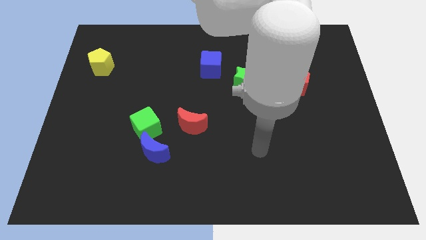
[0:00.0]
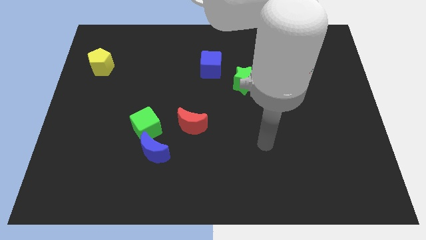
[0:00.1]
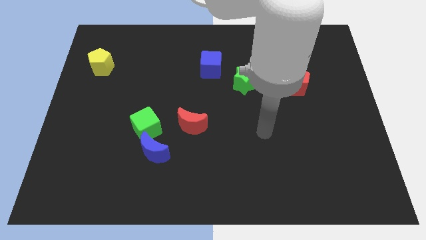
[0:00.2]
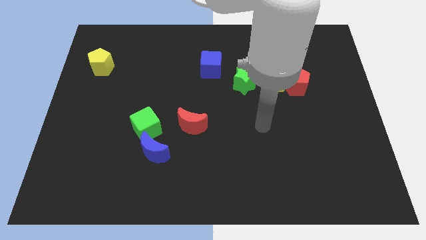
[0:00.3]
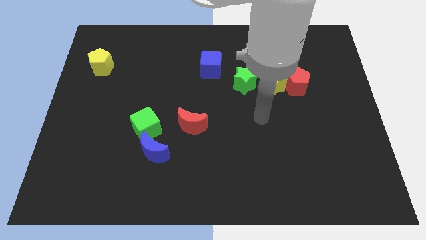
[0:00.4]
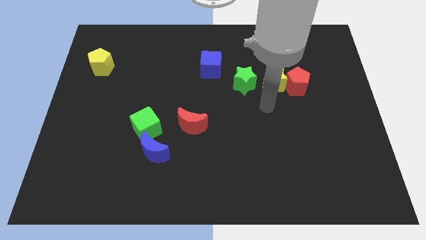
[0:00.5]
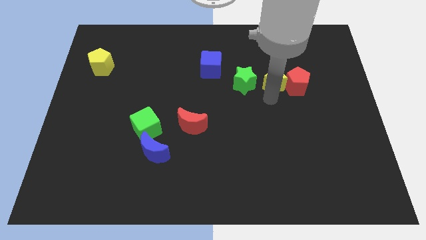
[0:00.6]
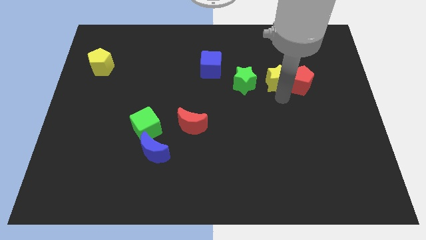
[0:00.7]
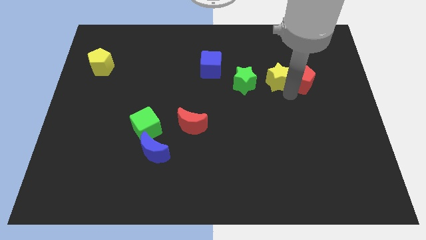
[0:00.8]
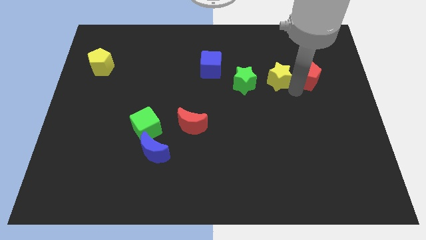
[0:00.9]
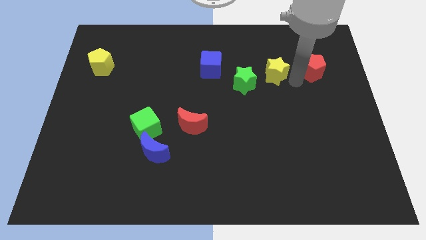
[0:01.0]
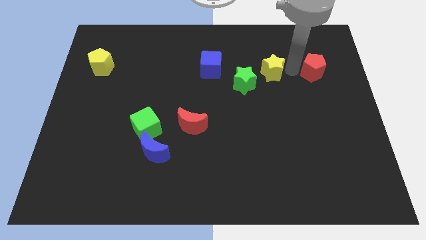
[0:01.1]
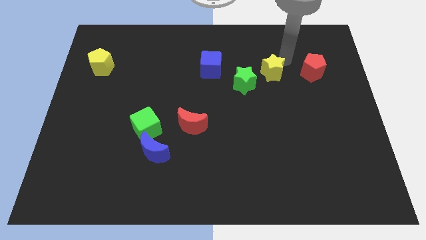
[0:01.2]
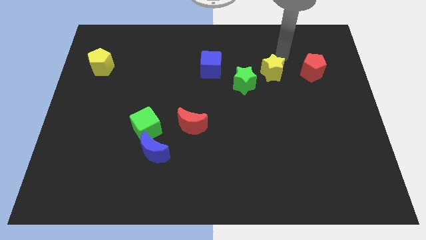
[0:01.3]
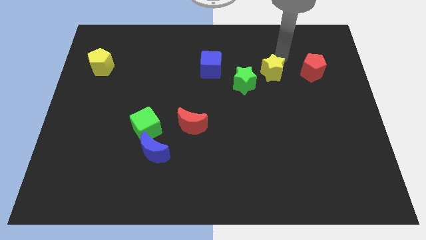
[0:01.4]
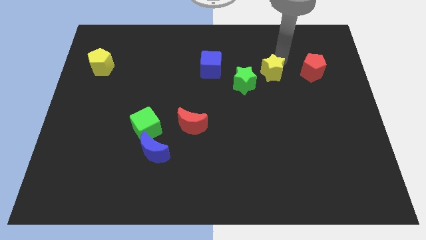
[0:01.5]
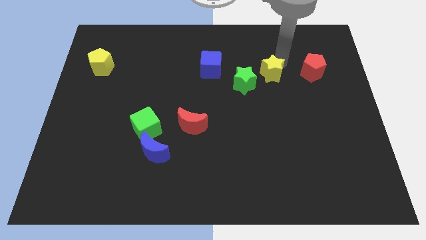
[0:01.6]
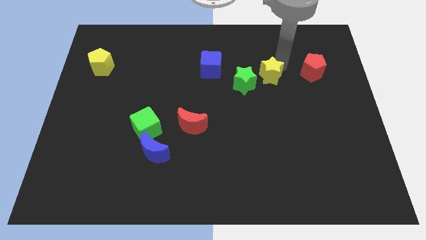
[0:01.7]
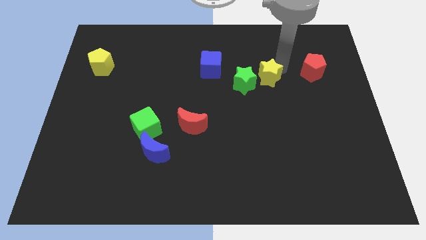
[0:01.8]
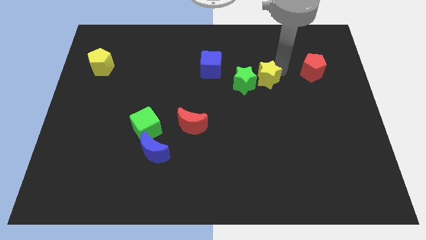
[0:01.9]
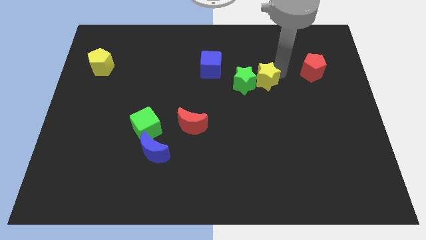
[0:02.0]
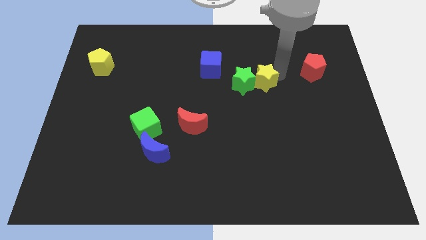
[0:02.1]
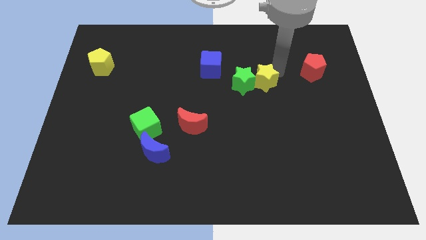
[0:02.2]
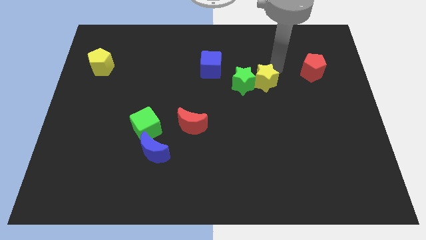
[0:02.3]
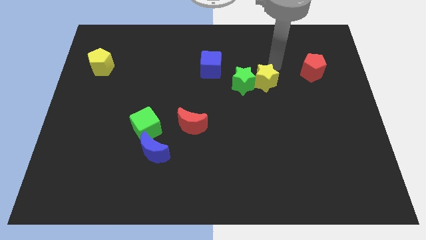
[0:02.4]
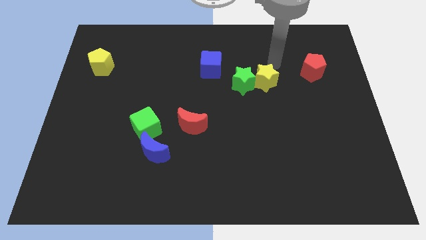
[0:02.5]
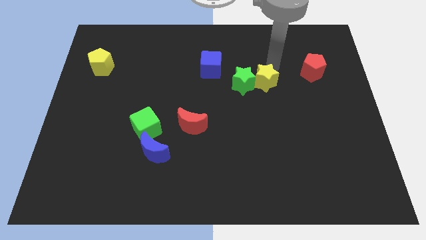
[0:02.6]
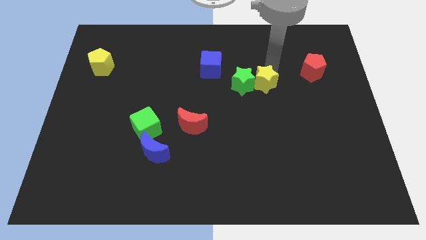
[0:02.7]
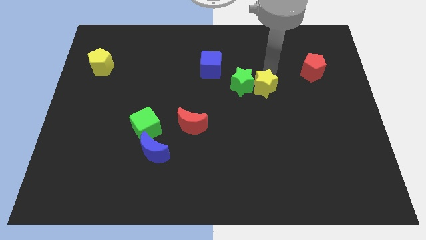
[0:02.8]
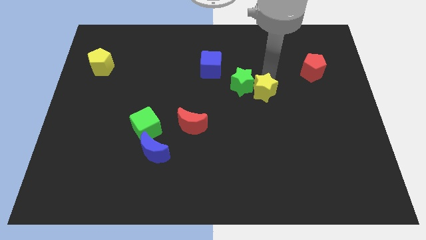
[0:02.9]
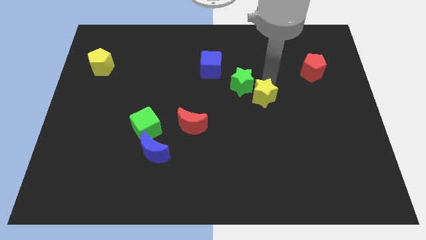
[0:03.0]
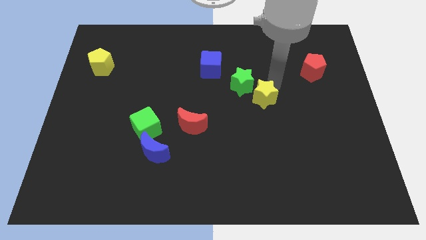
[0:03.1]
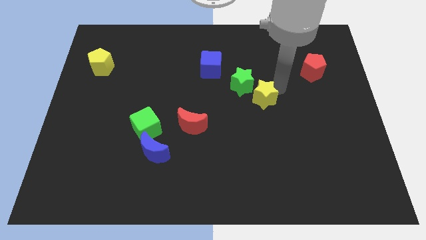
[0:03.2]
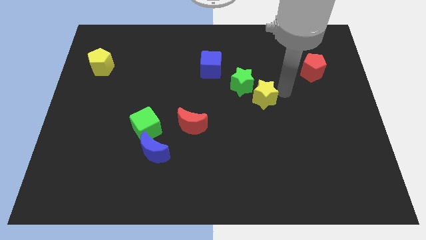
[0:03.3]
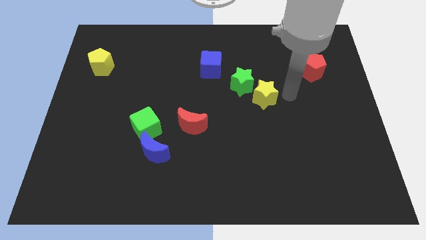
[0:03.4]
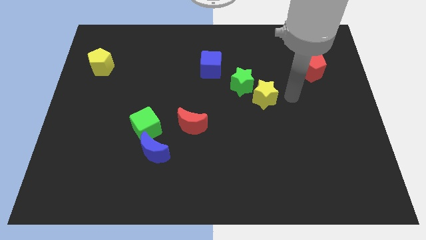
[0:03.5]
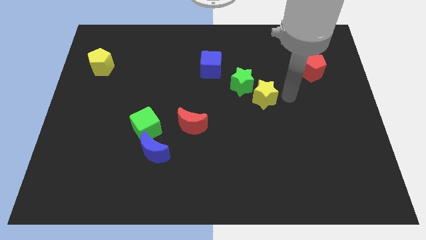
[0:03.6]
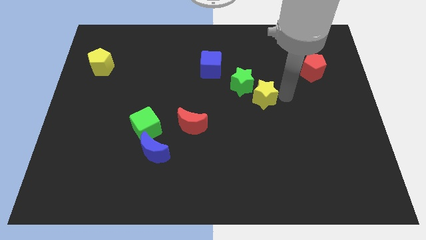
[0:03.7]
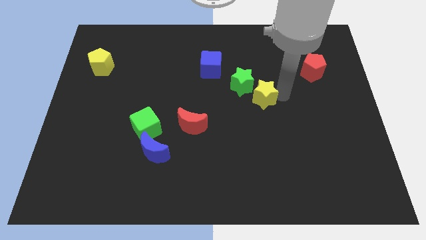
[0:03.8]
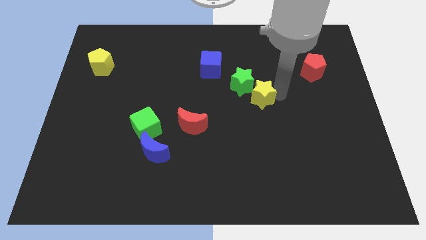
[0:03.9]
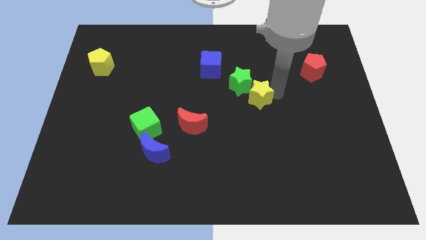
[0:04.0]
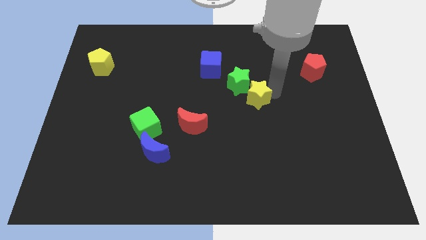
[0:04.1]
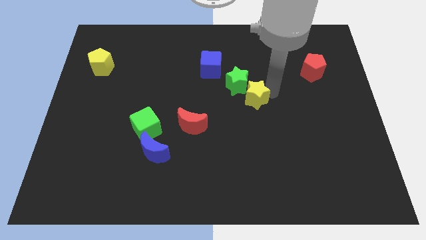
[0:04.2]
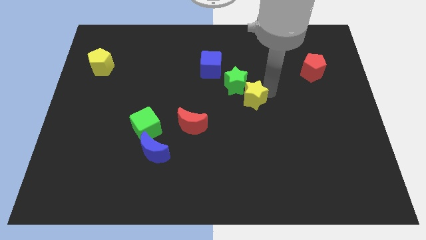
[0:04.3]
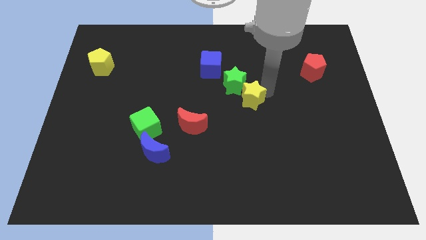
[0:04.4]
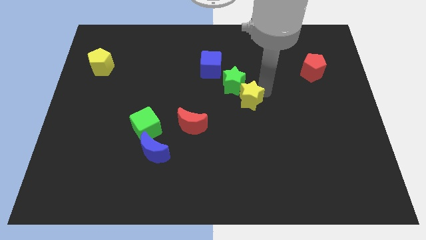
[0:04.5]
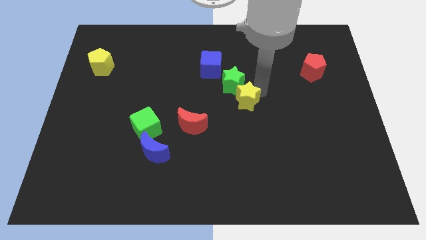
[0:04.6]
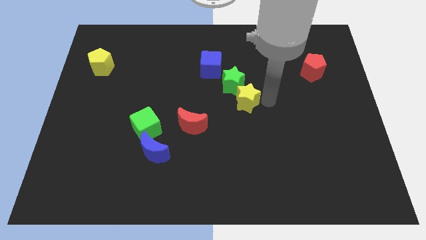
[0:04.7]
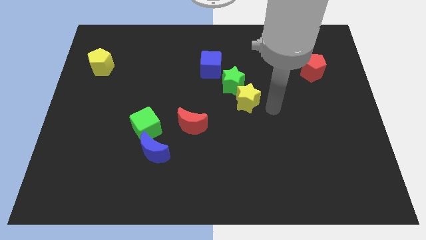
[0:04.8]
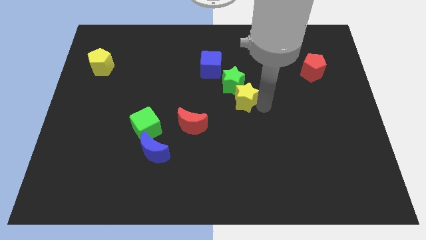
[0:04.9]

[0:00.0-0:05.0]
push the yellow star left somewhat

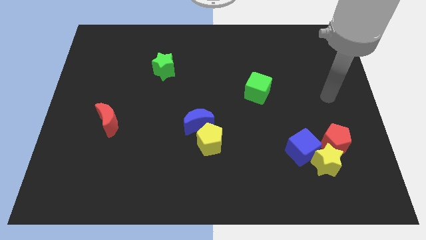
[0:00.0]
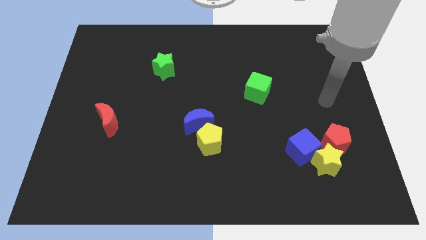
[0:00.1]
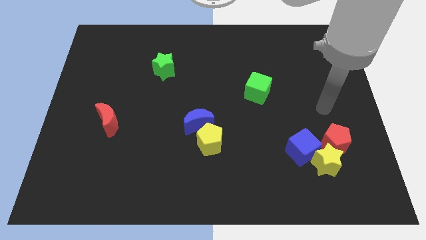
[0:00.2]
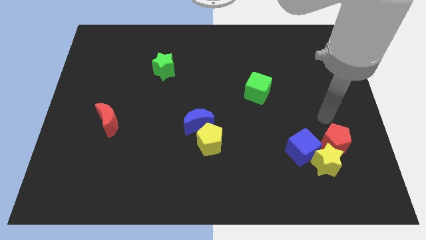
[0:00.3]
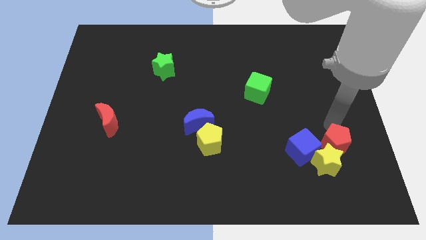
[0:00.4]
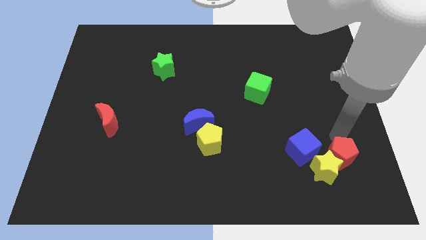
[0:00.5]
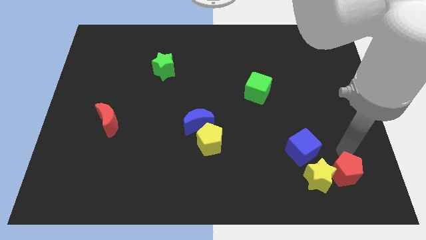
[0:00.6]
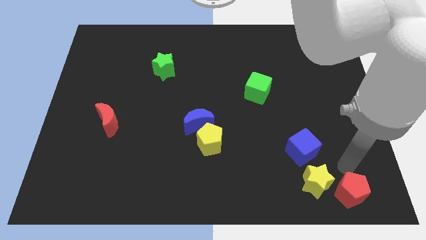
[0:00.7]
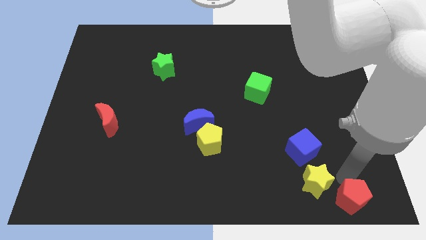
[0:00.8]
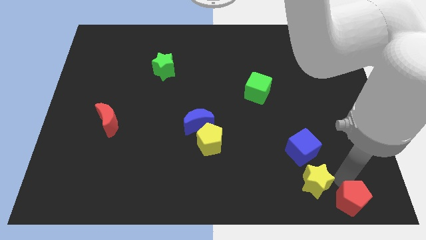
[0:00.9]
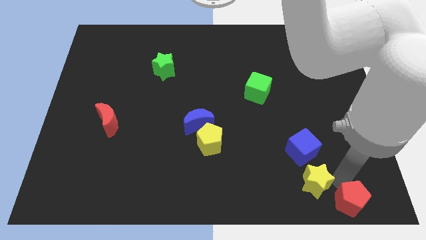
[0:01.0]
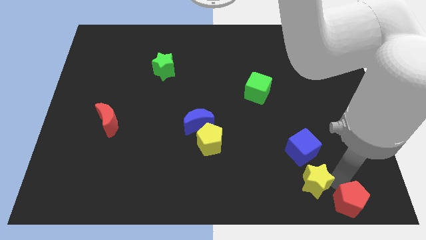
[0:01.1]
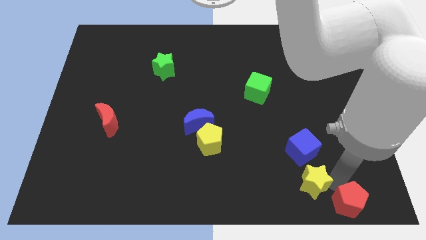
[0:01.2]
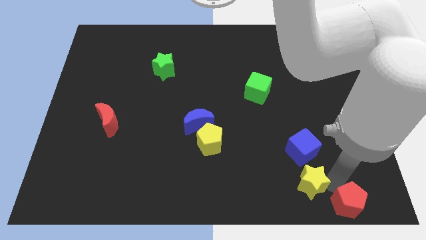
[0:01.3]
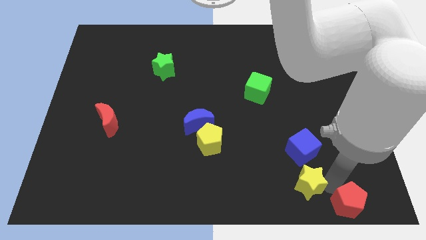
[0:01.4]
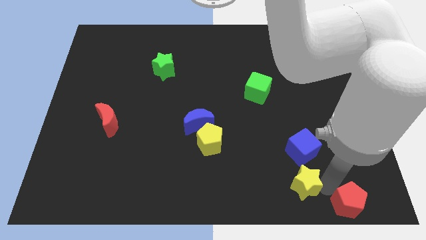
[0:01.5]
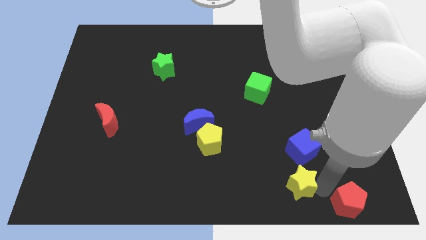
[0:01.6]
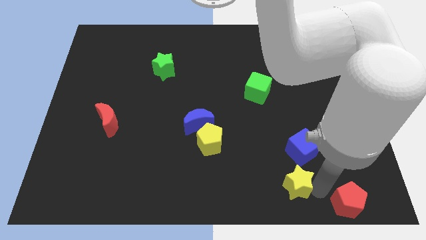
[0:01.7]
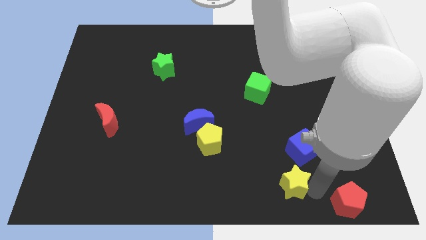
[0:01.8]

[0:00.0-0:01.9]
slide the yellow star a little bit to the left

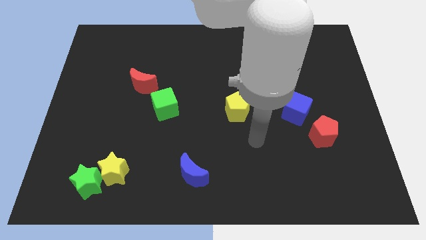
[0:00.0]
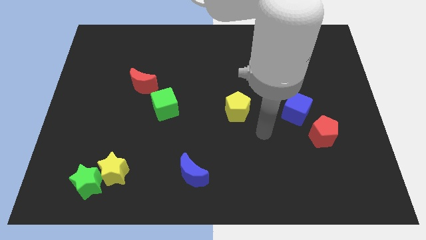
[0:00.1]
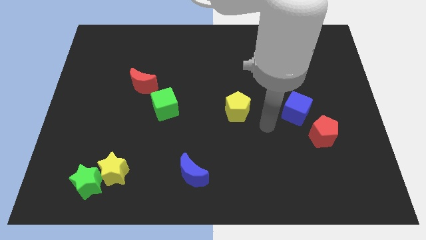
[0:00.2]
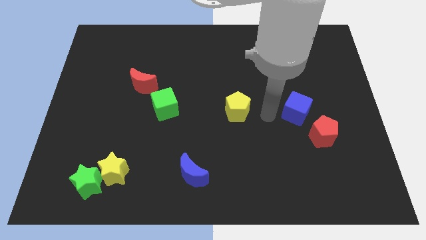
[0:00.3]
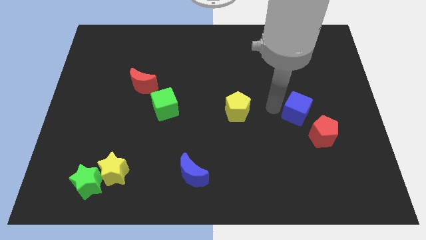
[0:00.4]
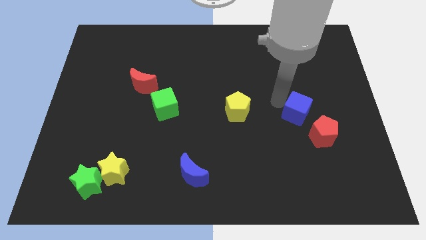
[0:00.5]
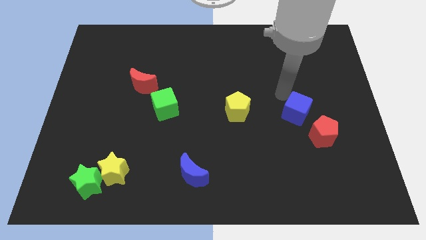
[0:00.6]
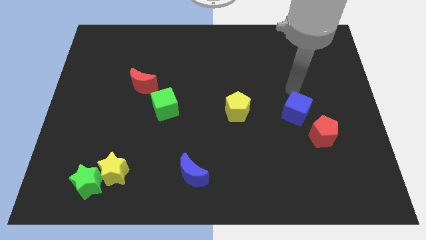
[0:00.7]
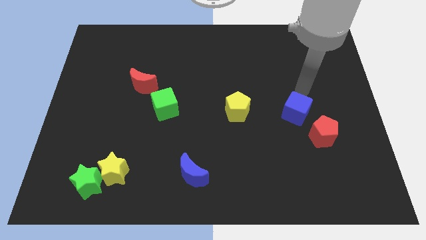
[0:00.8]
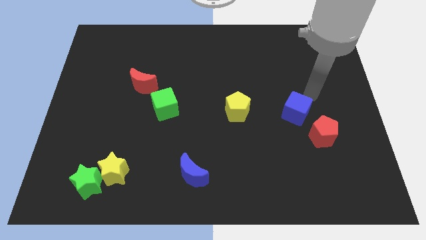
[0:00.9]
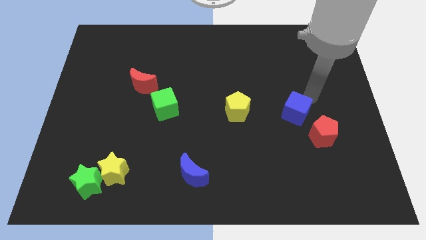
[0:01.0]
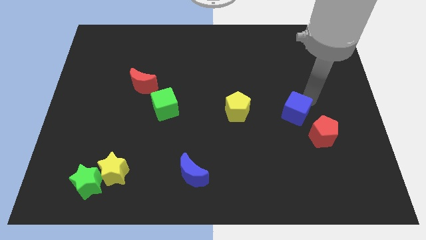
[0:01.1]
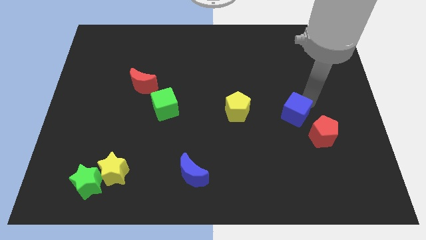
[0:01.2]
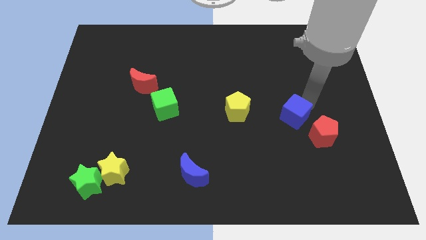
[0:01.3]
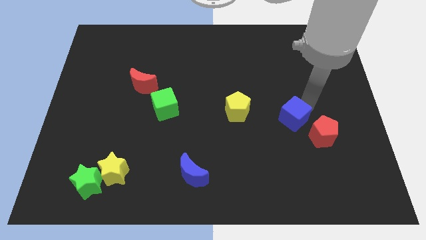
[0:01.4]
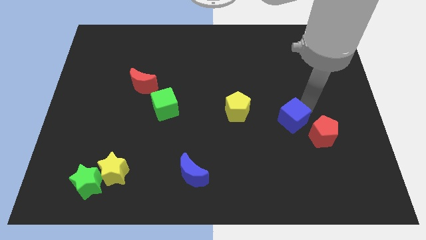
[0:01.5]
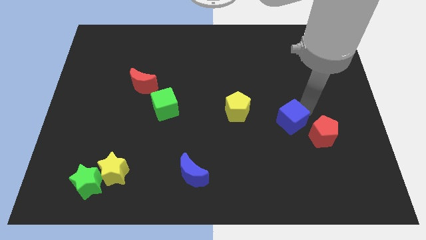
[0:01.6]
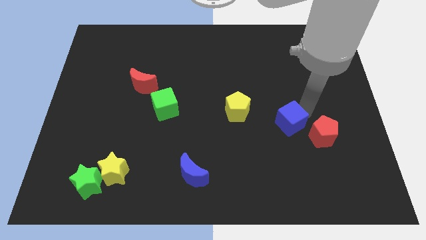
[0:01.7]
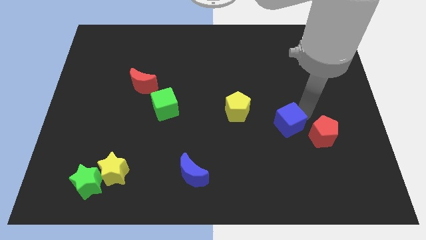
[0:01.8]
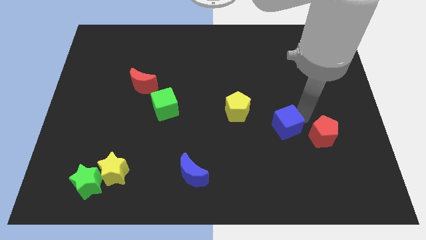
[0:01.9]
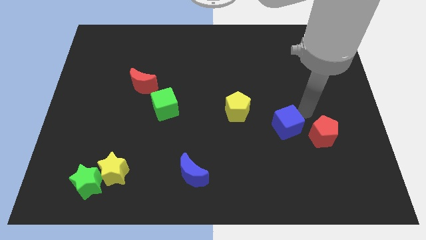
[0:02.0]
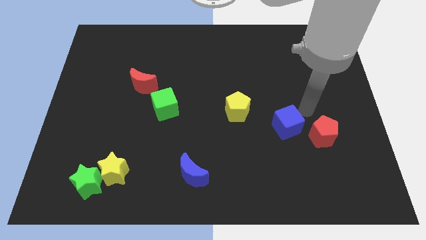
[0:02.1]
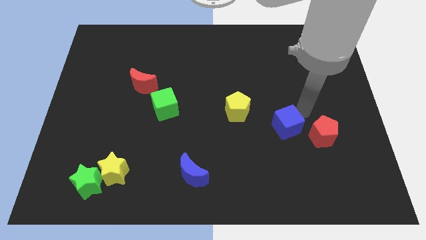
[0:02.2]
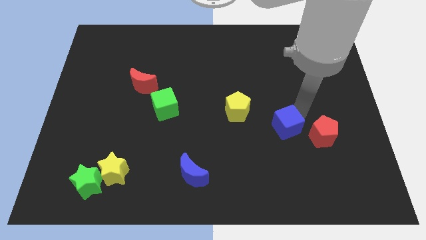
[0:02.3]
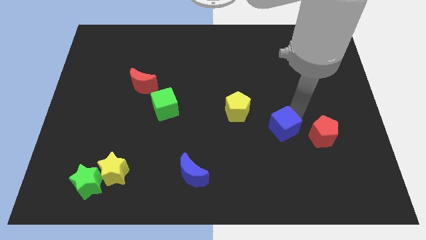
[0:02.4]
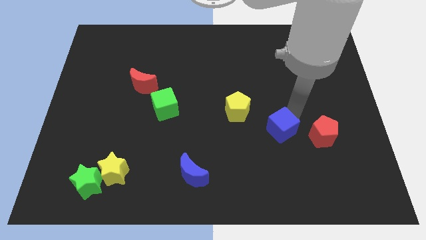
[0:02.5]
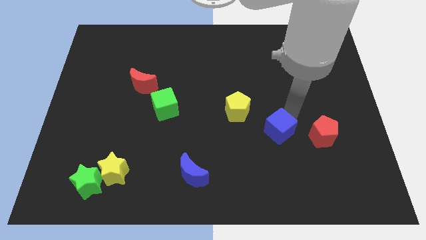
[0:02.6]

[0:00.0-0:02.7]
push the blue cube diagonally down and to the left a bit
